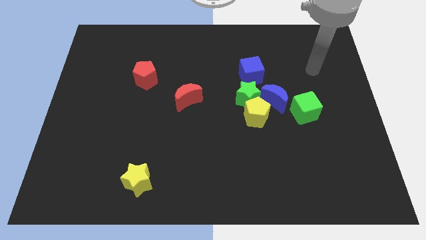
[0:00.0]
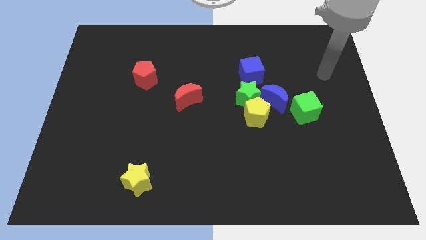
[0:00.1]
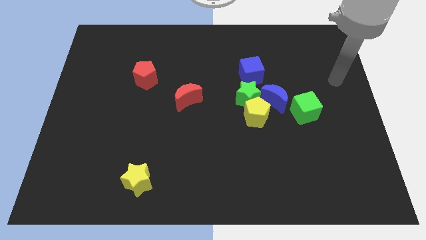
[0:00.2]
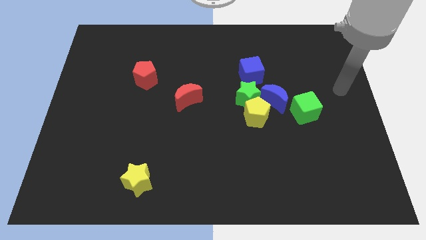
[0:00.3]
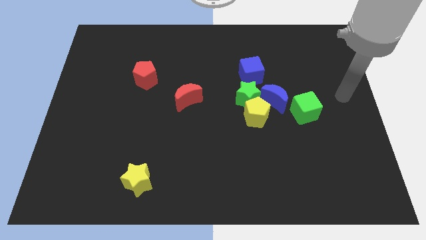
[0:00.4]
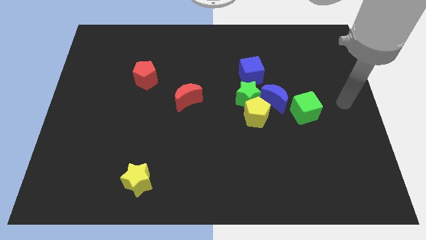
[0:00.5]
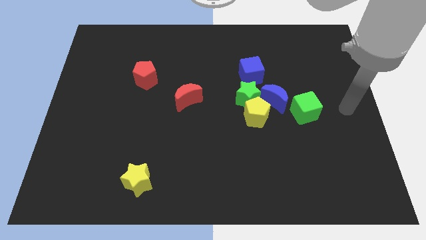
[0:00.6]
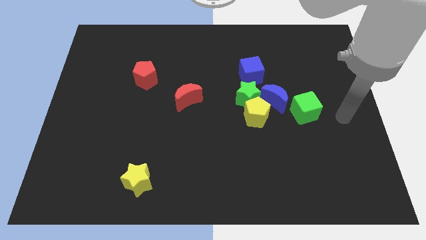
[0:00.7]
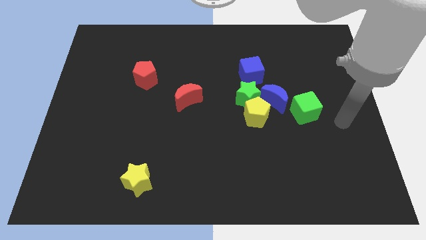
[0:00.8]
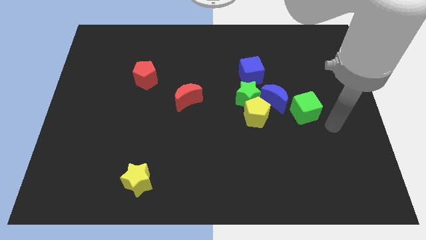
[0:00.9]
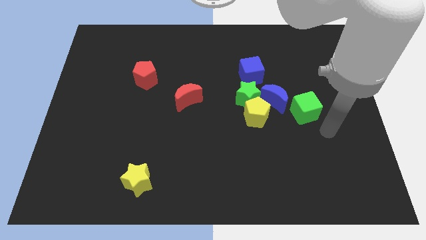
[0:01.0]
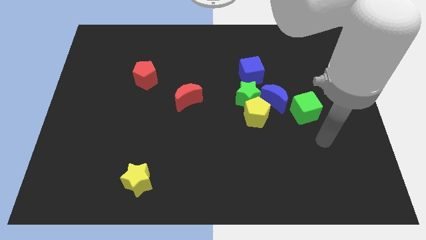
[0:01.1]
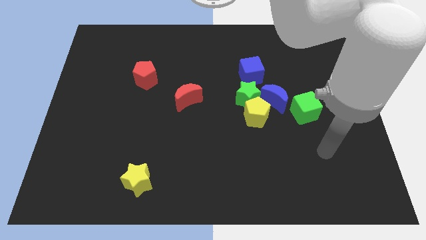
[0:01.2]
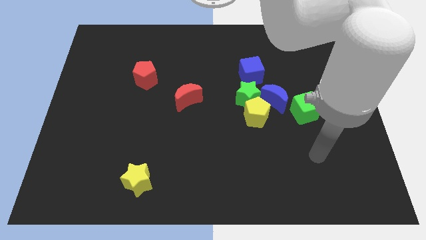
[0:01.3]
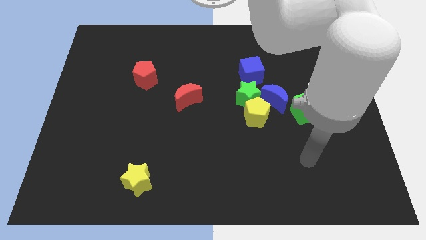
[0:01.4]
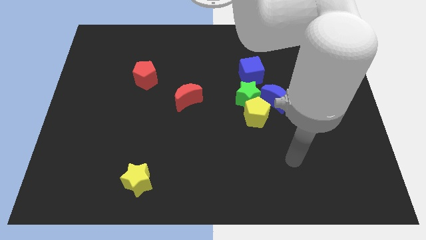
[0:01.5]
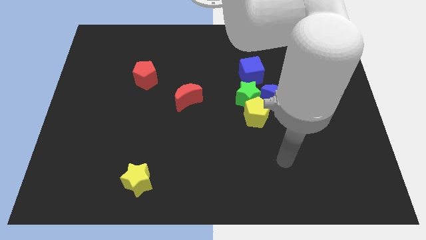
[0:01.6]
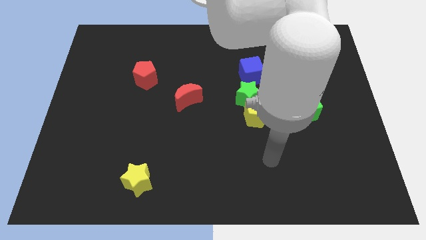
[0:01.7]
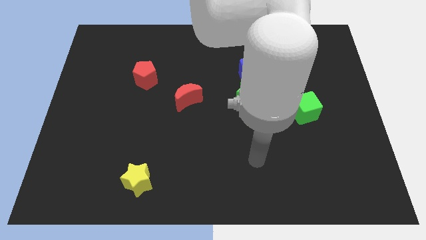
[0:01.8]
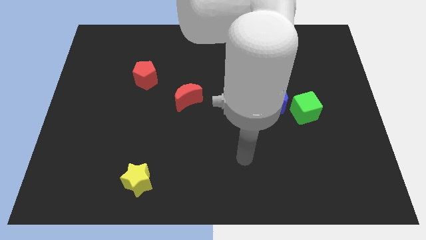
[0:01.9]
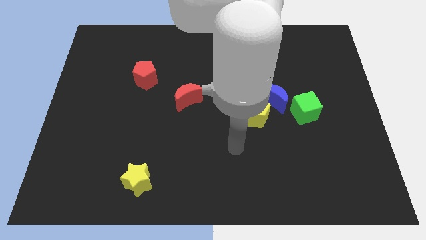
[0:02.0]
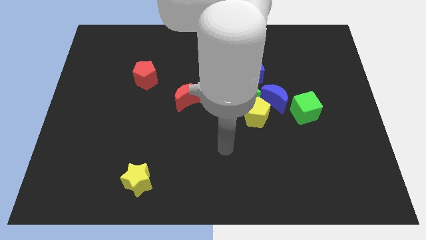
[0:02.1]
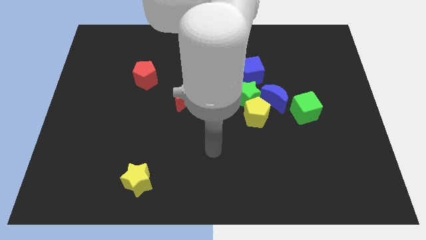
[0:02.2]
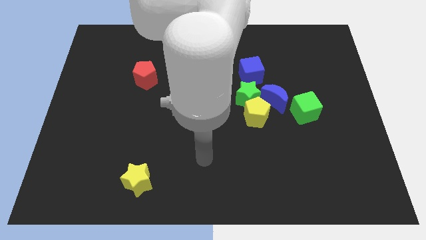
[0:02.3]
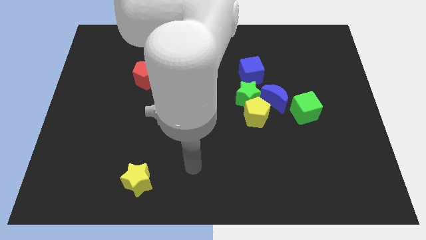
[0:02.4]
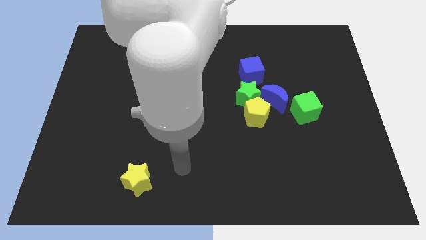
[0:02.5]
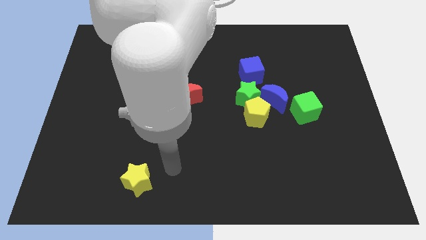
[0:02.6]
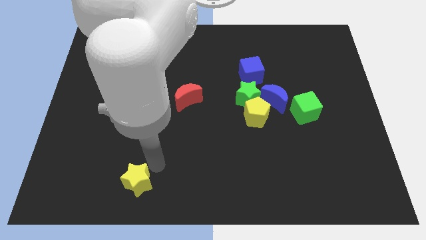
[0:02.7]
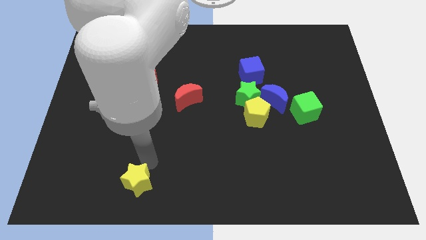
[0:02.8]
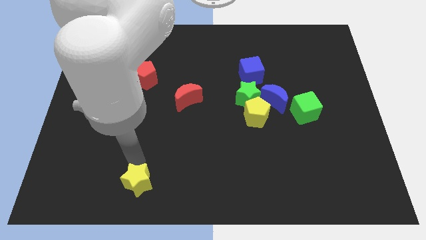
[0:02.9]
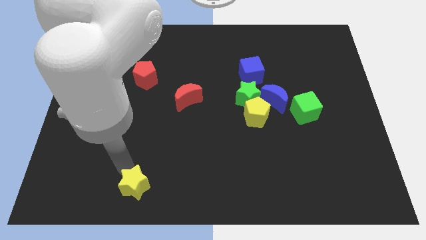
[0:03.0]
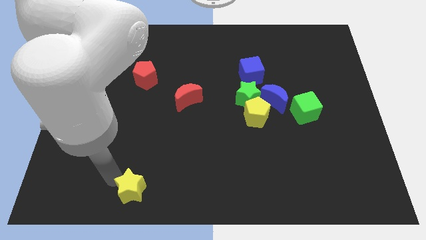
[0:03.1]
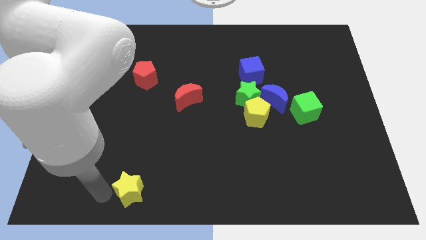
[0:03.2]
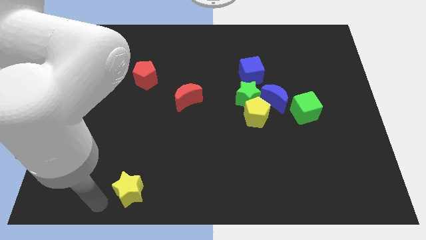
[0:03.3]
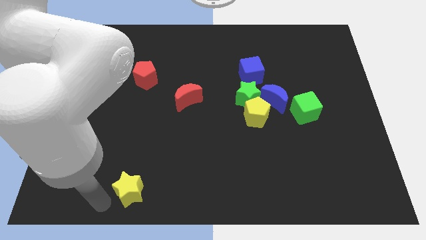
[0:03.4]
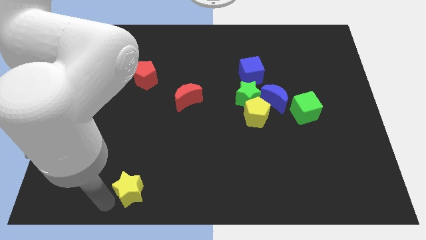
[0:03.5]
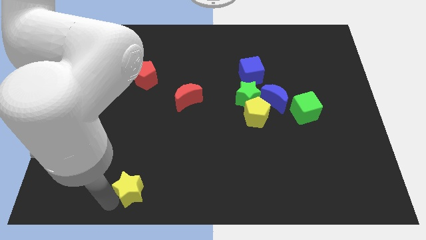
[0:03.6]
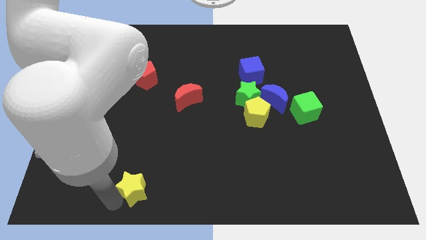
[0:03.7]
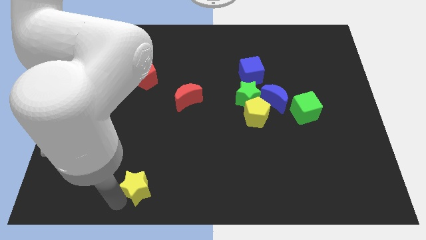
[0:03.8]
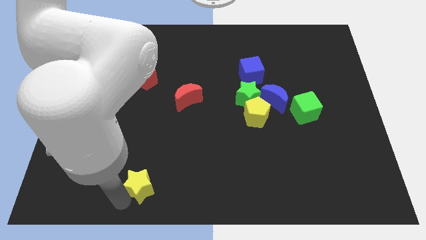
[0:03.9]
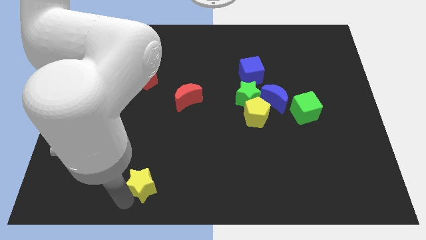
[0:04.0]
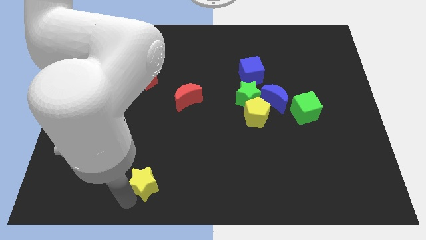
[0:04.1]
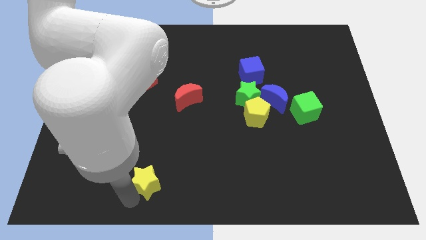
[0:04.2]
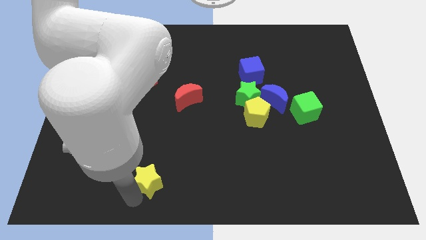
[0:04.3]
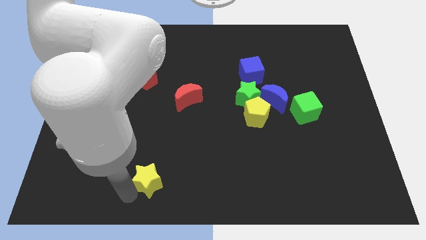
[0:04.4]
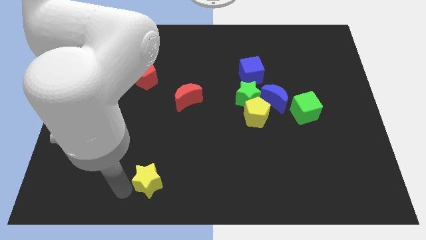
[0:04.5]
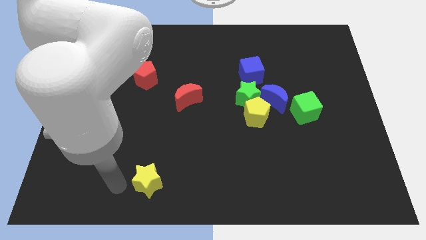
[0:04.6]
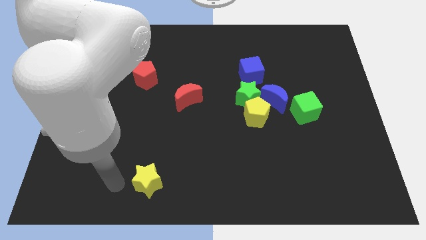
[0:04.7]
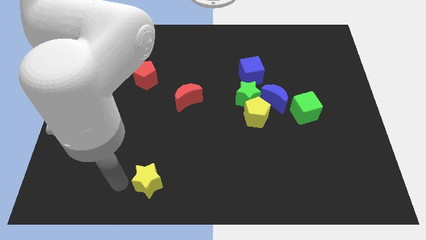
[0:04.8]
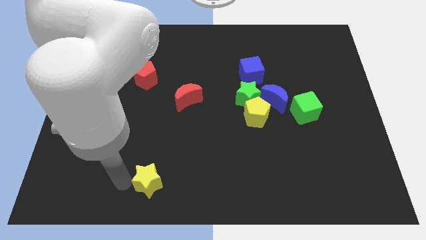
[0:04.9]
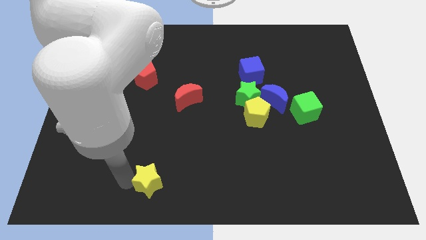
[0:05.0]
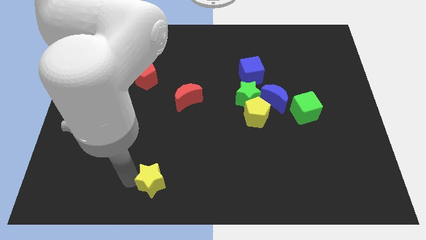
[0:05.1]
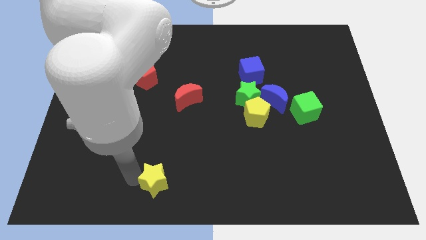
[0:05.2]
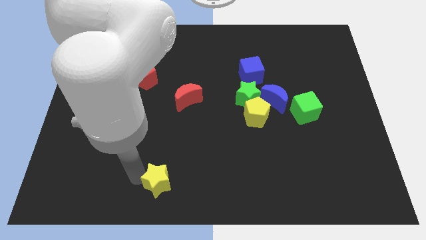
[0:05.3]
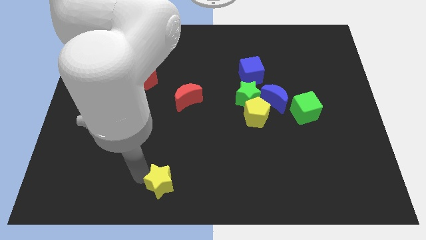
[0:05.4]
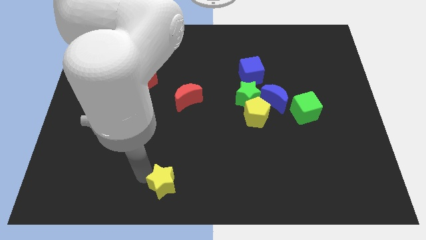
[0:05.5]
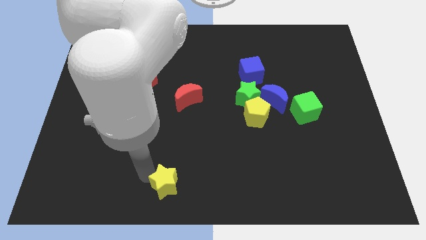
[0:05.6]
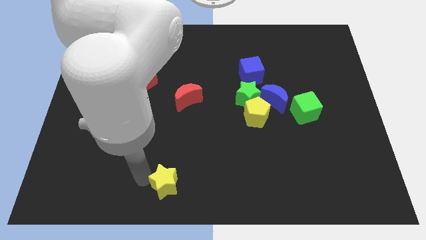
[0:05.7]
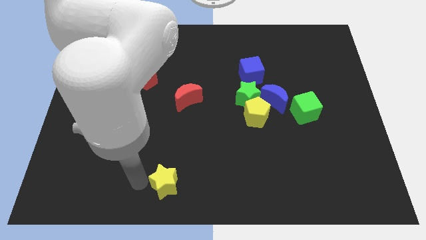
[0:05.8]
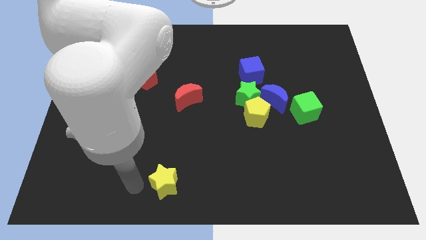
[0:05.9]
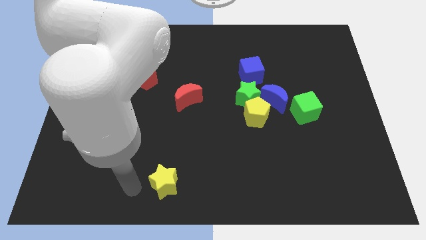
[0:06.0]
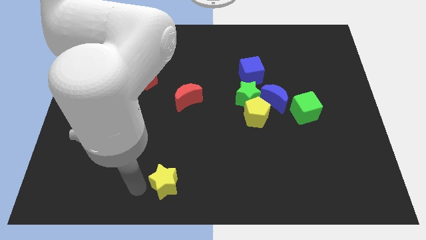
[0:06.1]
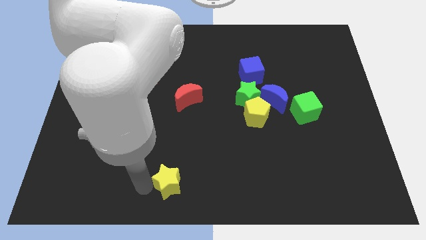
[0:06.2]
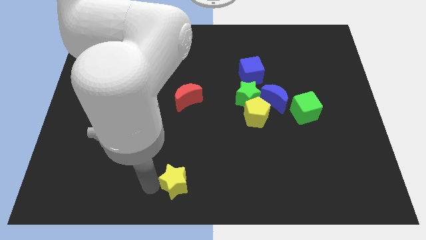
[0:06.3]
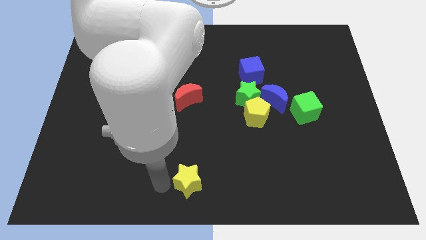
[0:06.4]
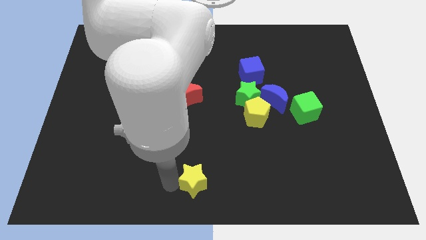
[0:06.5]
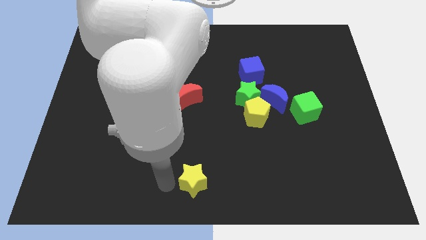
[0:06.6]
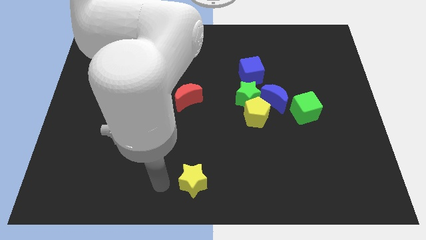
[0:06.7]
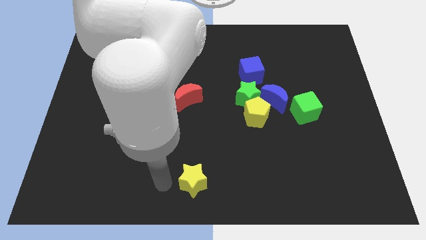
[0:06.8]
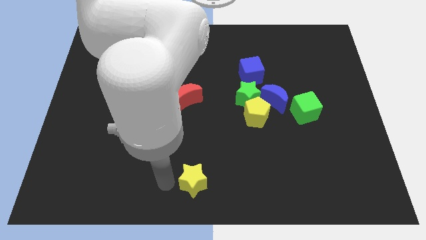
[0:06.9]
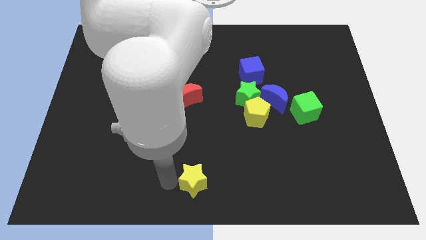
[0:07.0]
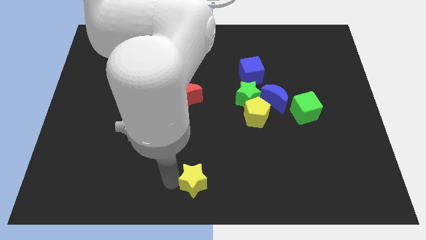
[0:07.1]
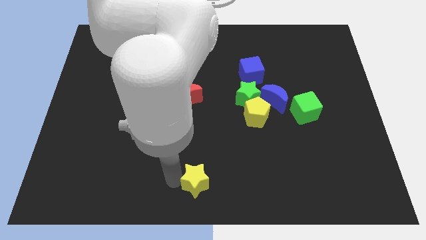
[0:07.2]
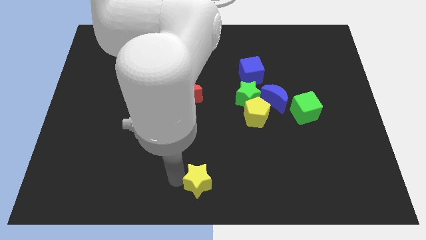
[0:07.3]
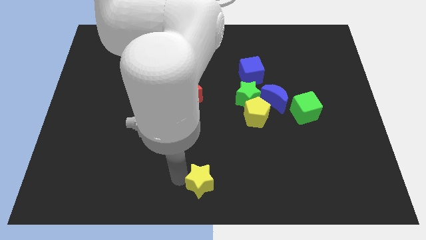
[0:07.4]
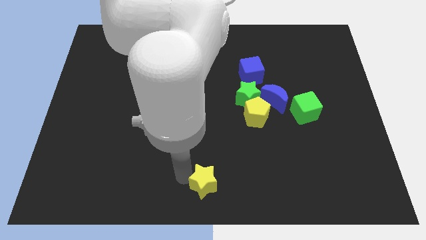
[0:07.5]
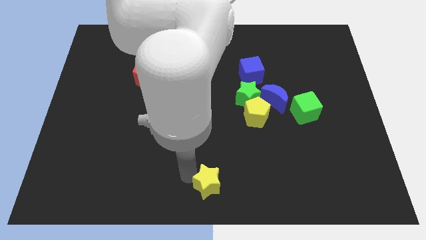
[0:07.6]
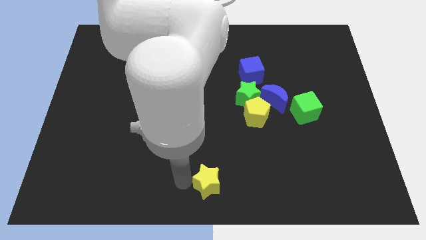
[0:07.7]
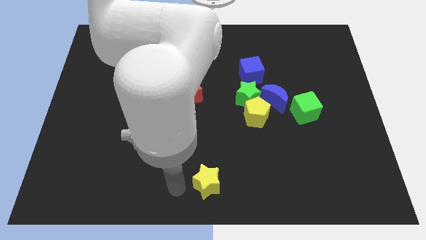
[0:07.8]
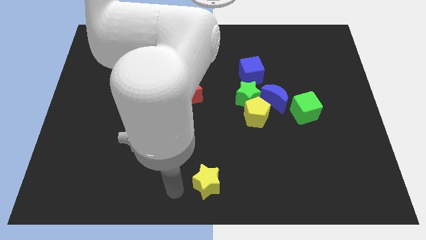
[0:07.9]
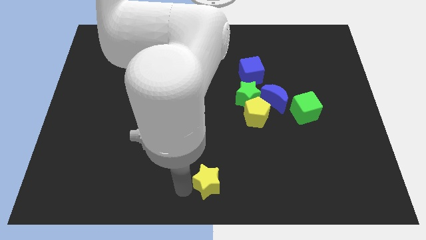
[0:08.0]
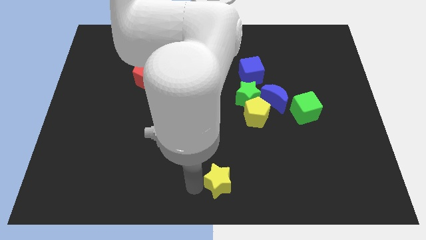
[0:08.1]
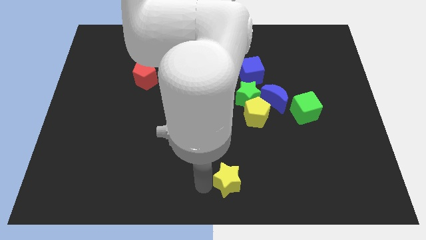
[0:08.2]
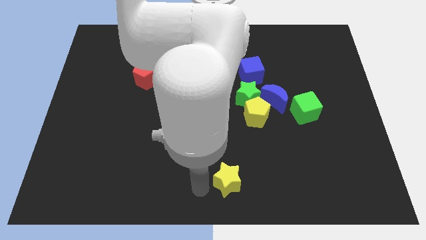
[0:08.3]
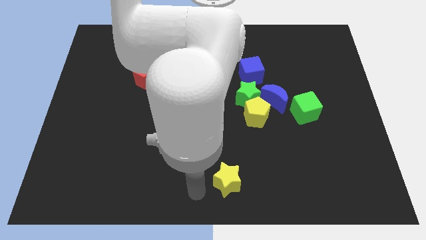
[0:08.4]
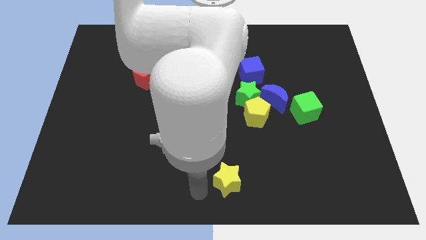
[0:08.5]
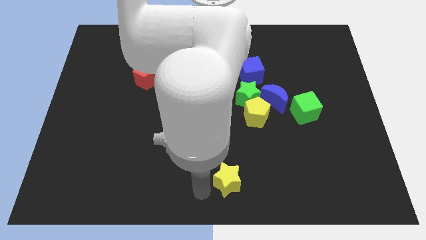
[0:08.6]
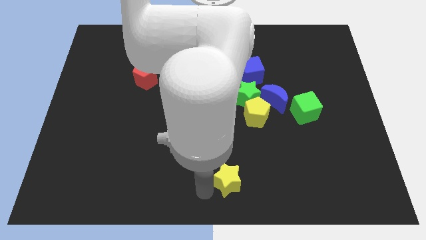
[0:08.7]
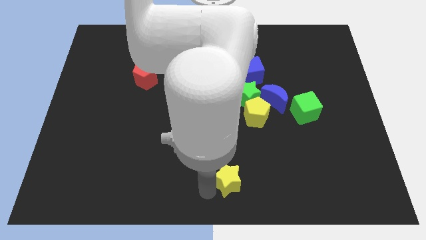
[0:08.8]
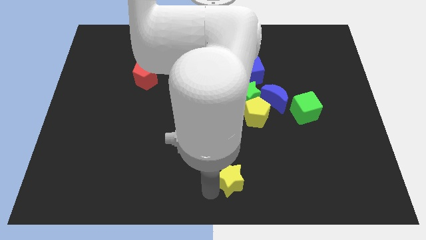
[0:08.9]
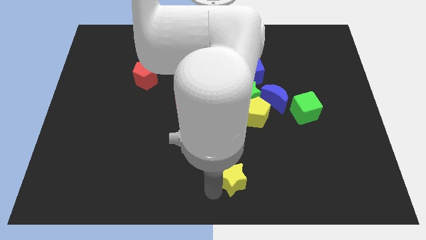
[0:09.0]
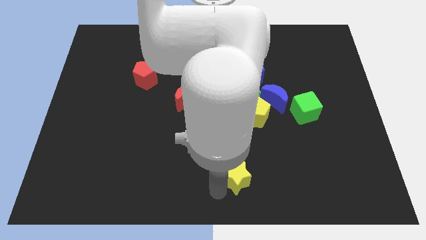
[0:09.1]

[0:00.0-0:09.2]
push the yellow star right
